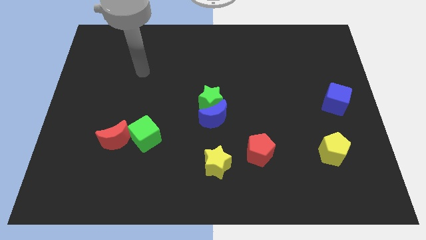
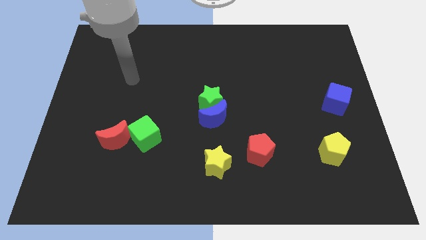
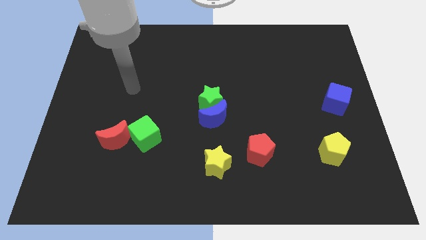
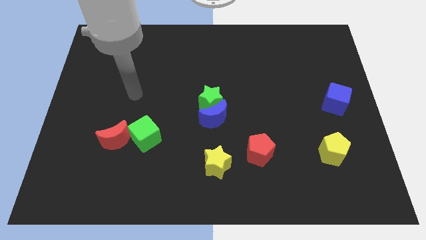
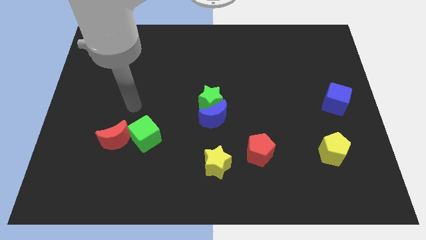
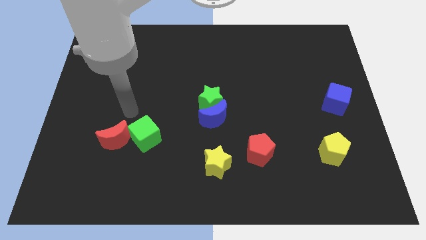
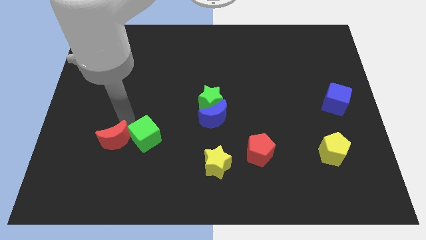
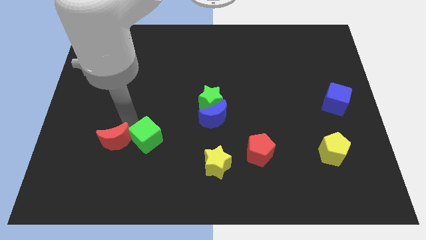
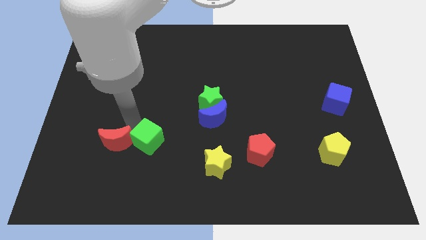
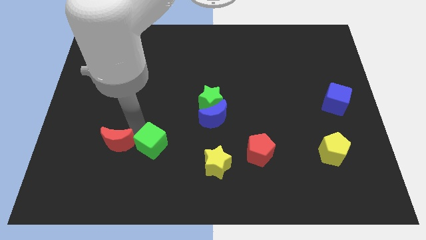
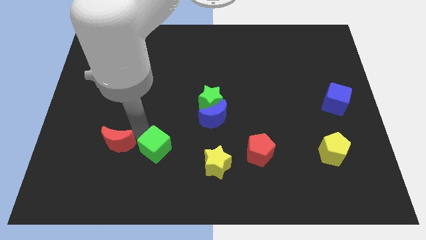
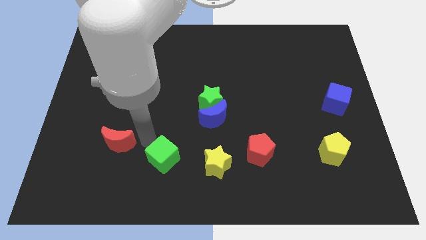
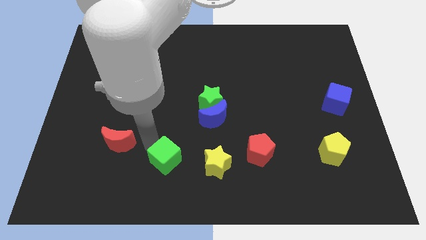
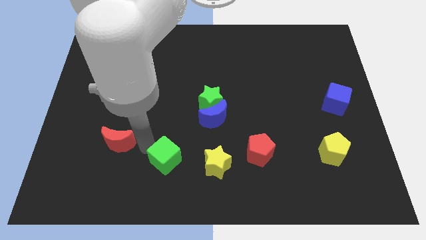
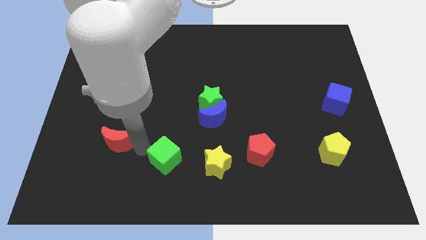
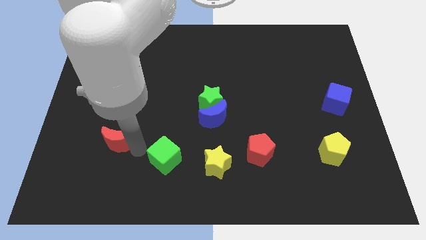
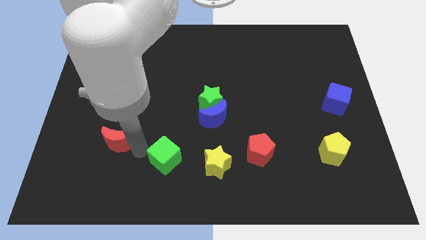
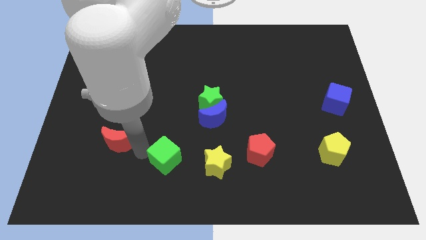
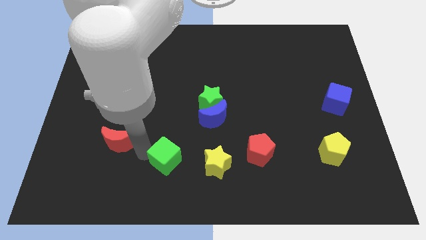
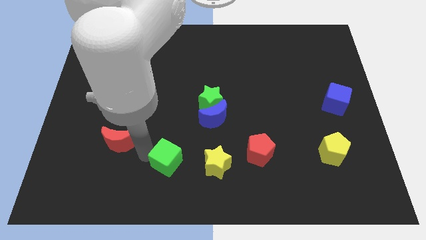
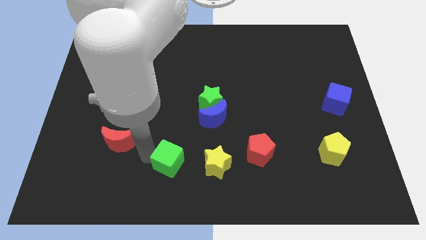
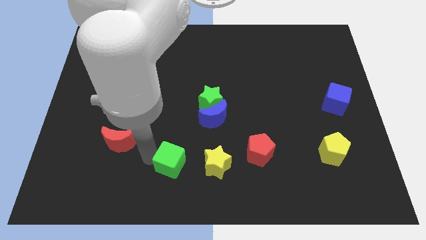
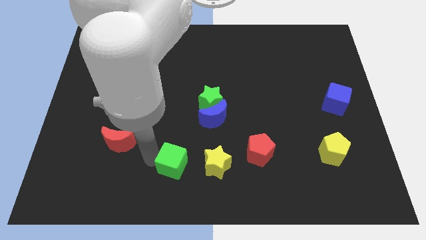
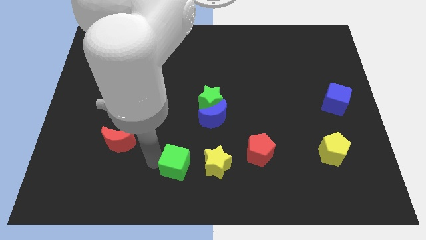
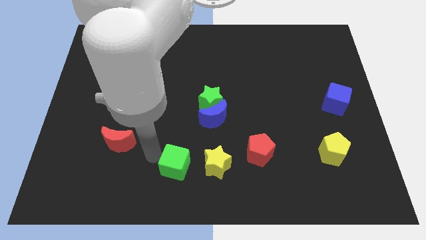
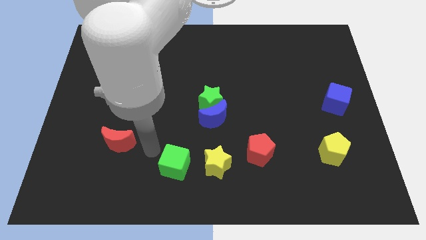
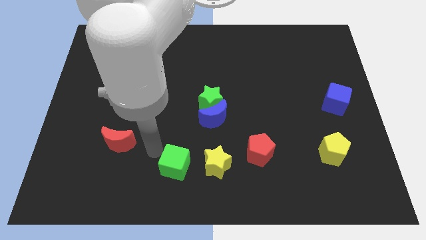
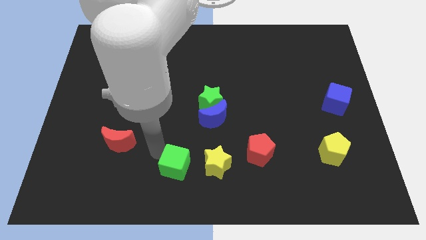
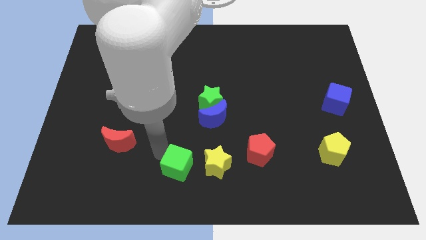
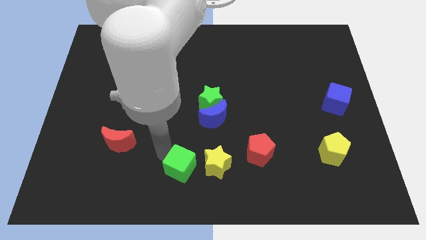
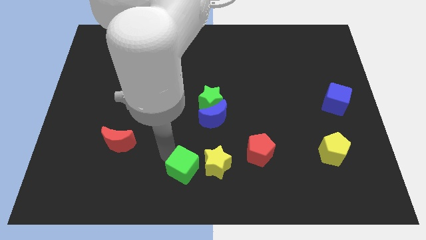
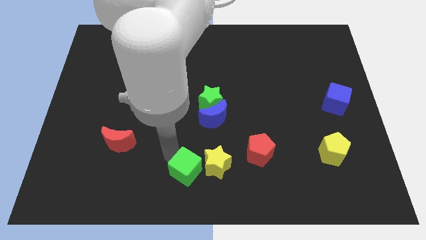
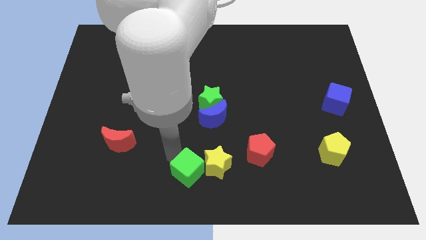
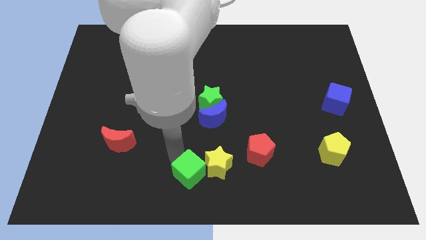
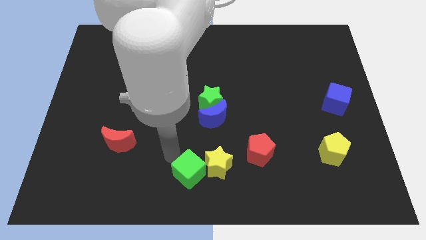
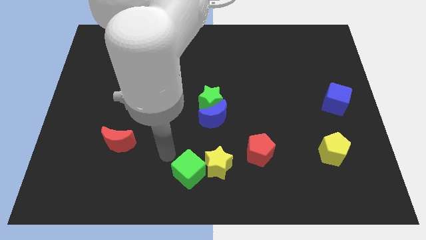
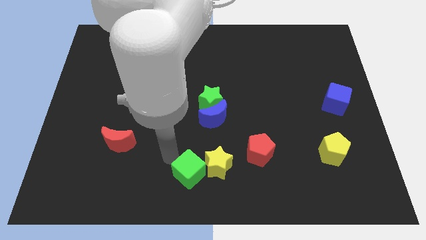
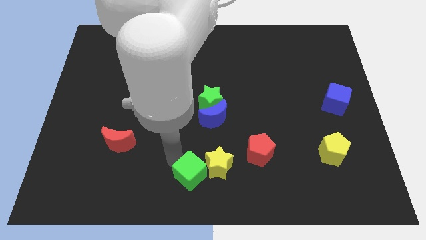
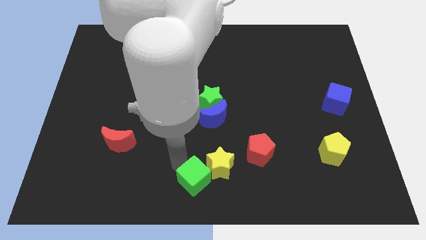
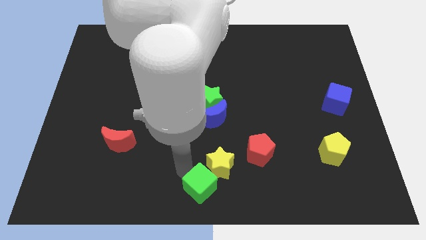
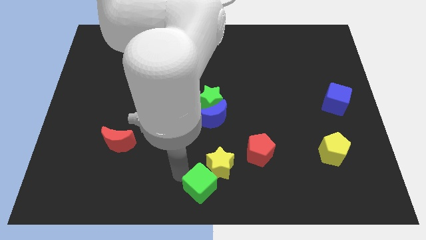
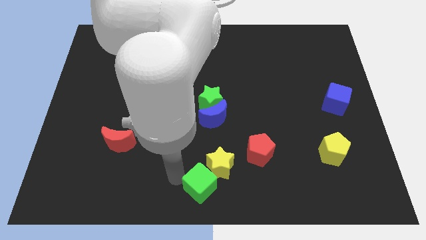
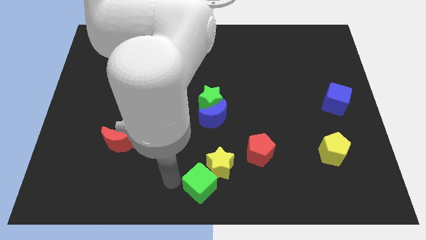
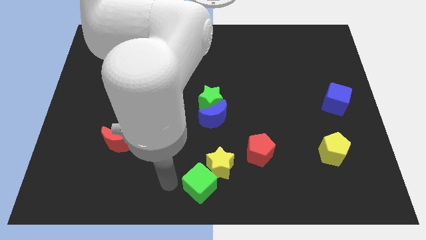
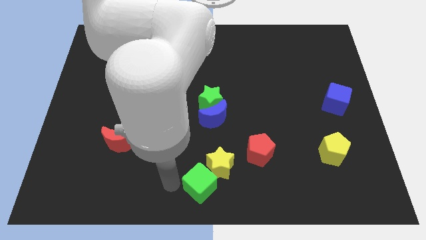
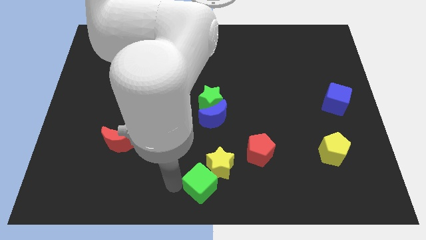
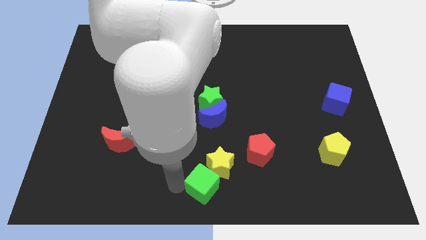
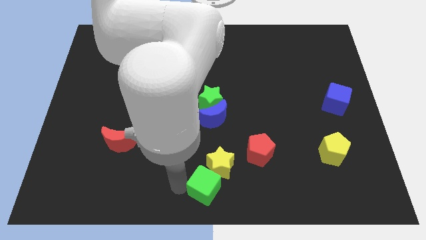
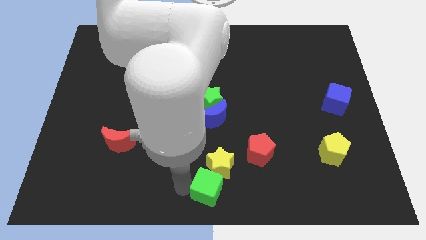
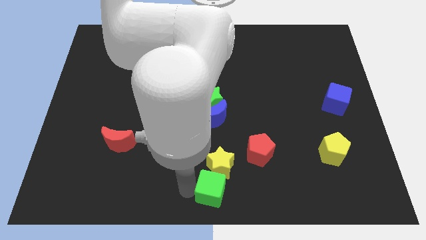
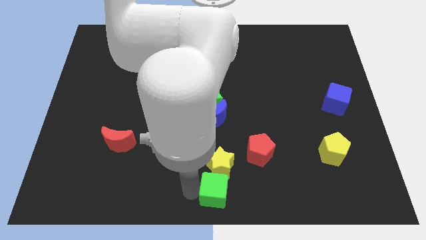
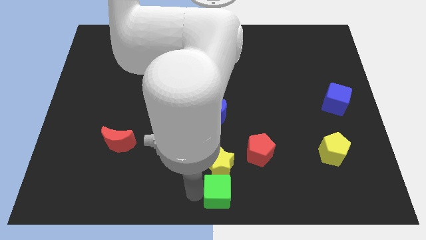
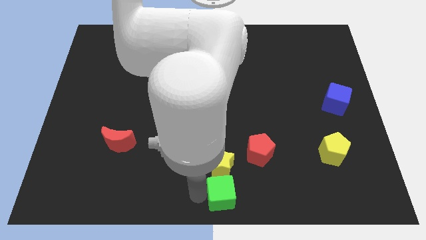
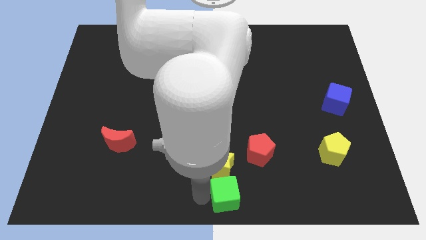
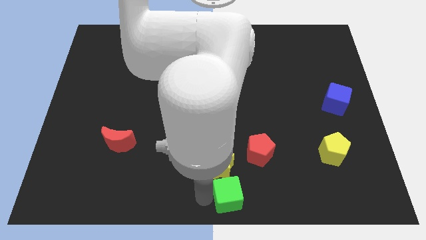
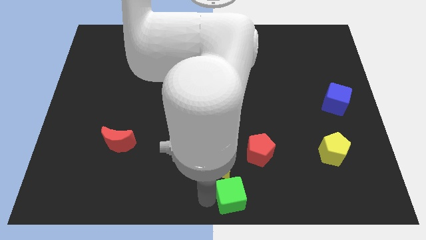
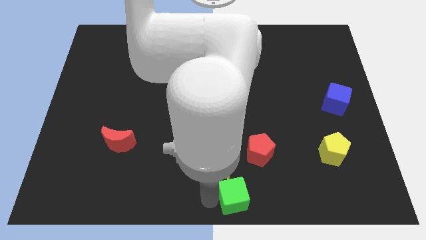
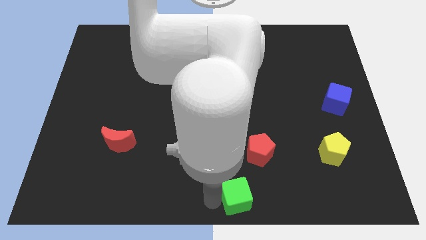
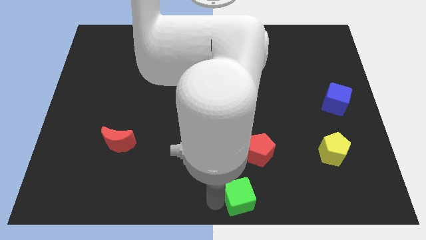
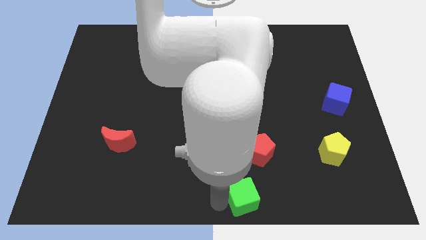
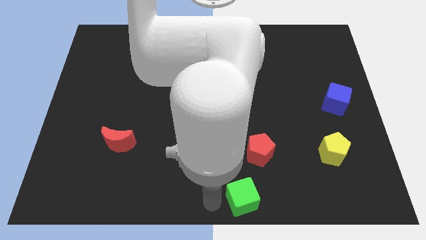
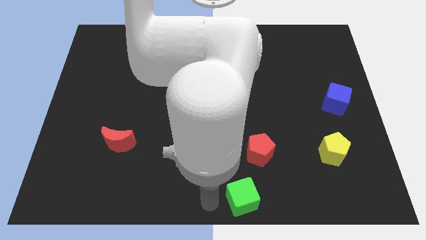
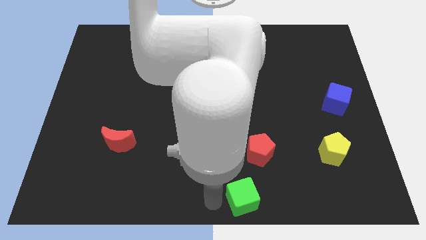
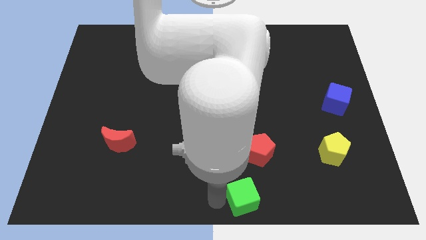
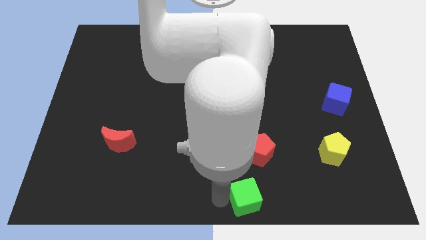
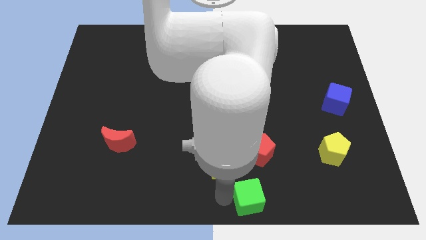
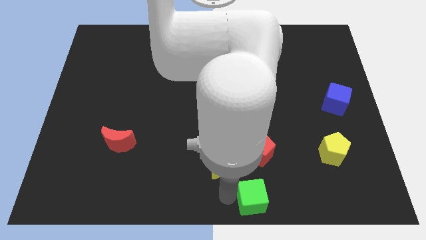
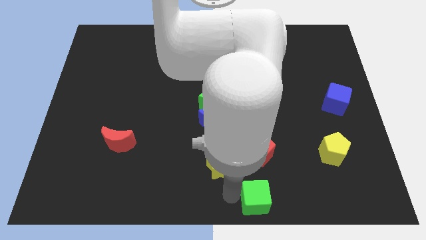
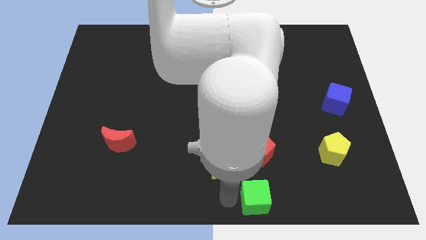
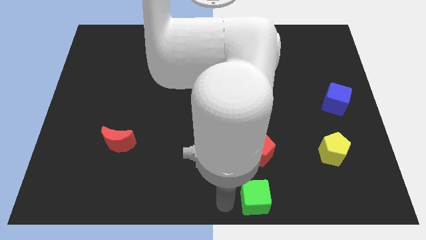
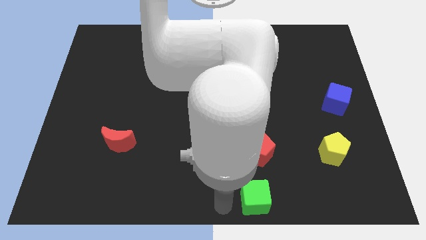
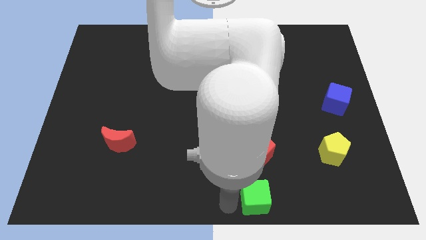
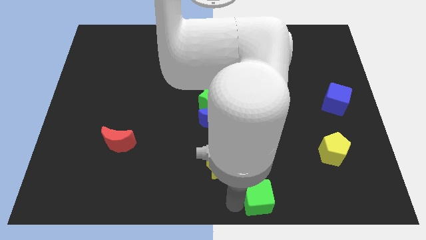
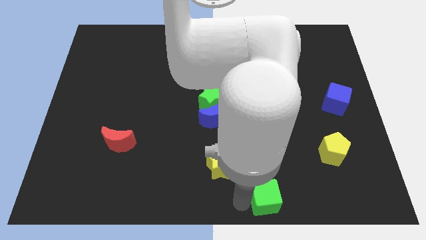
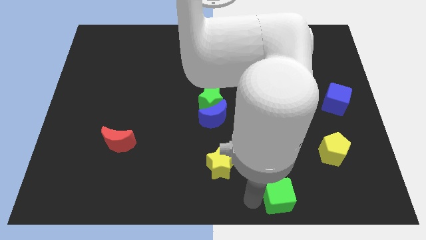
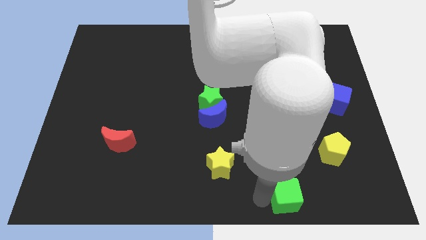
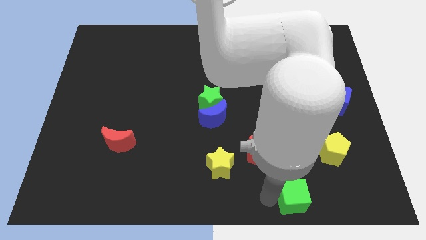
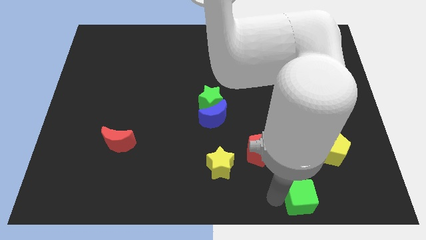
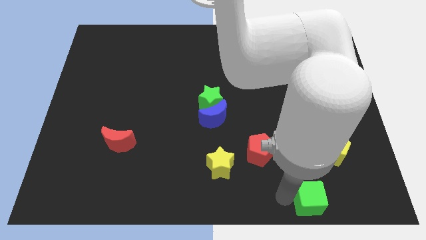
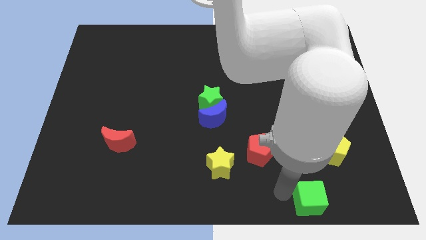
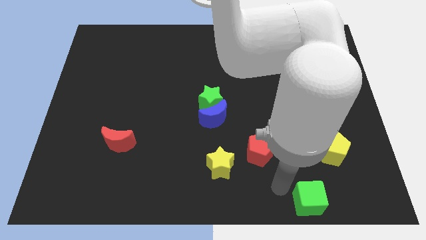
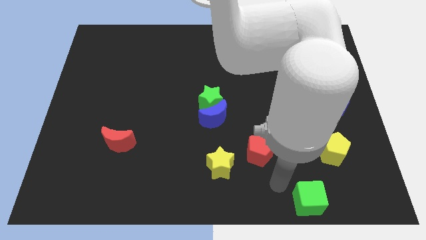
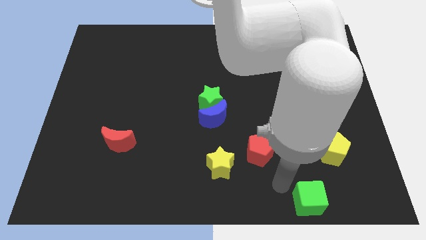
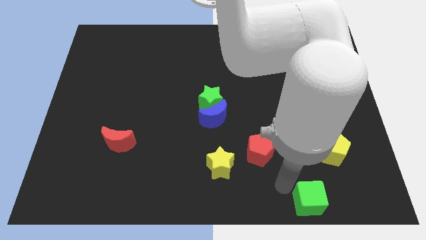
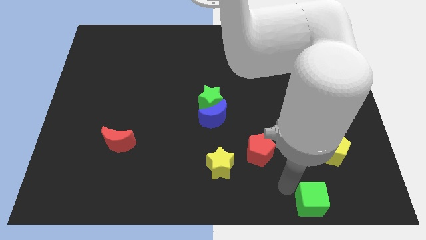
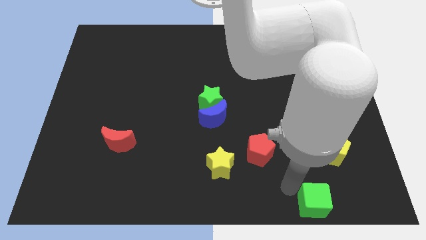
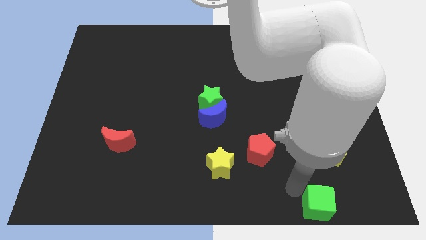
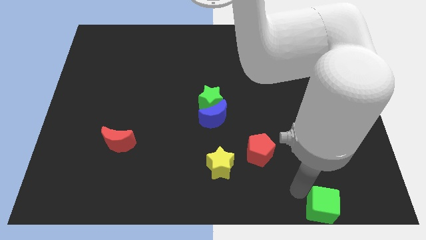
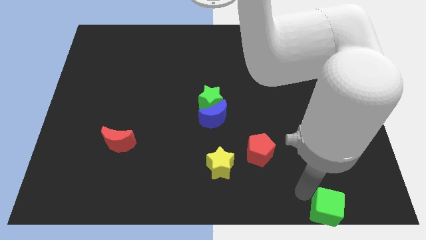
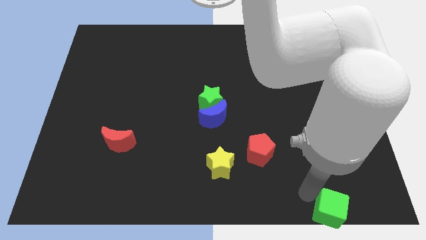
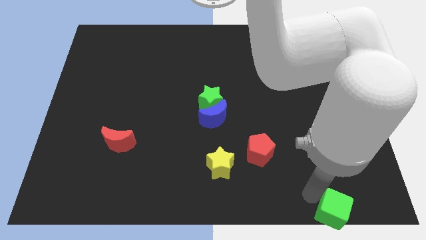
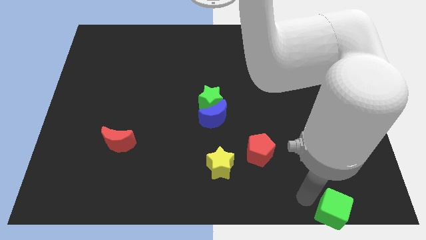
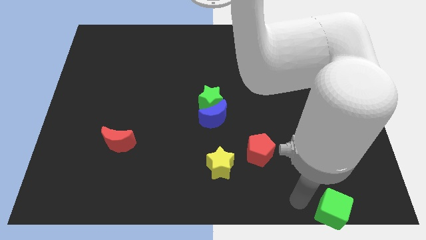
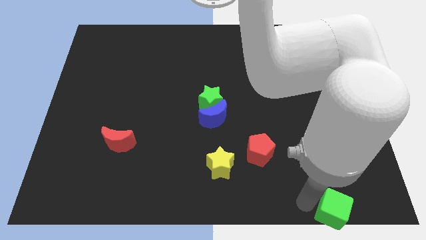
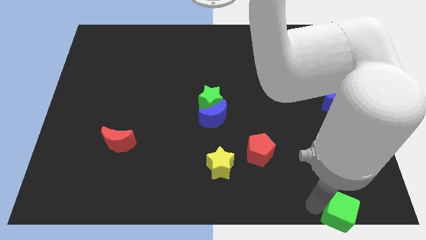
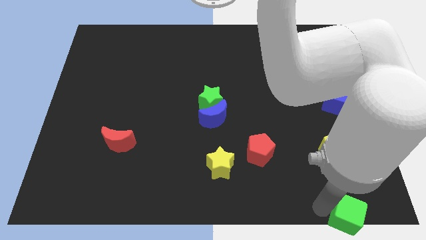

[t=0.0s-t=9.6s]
slide the green cube to the bottom right of the board
